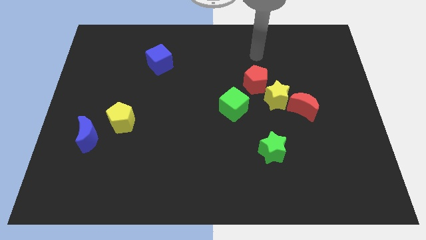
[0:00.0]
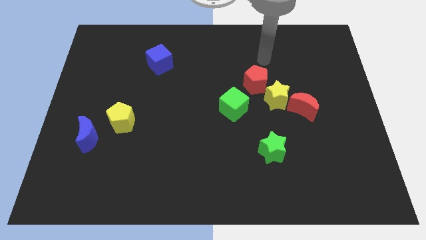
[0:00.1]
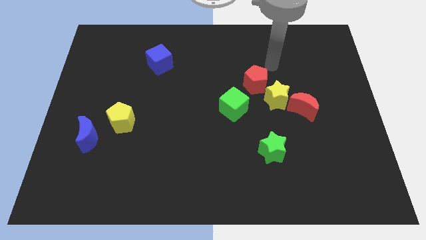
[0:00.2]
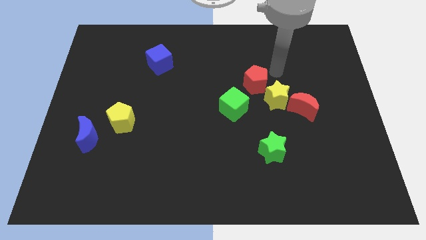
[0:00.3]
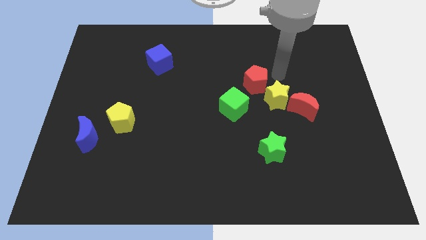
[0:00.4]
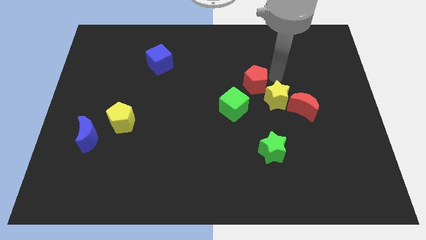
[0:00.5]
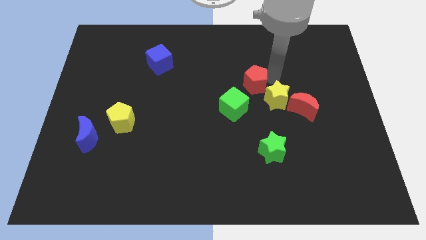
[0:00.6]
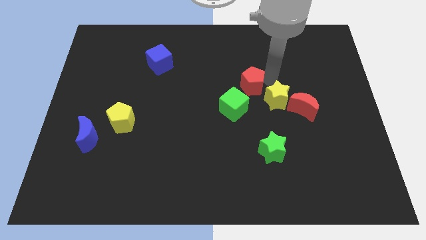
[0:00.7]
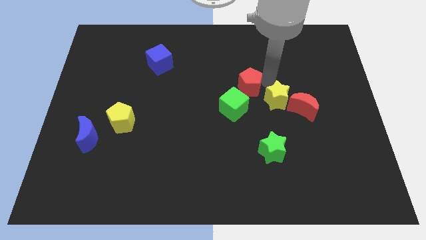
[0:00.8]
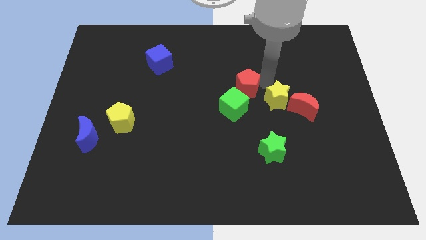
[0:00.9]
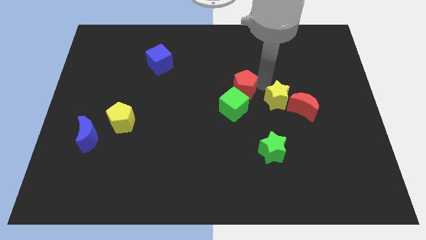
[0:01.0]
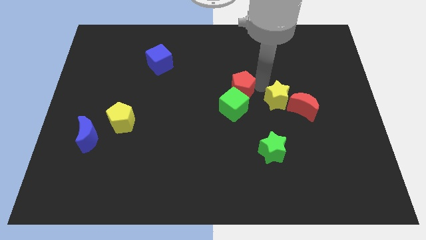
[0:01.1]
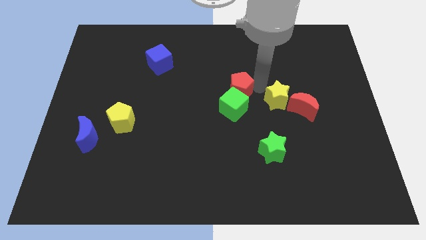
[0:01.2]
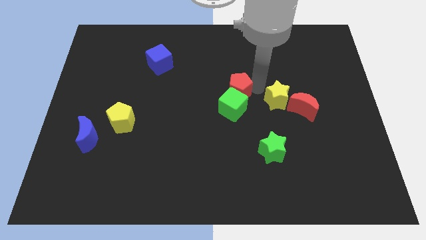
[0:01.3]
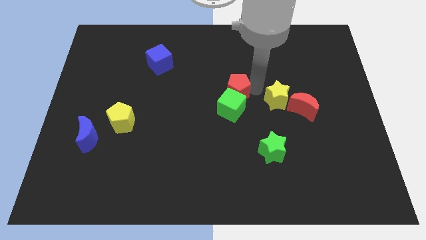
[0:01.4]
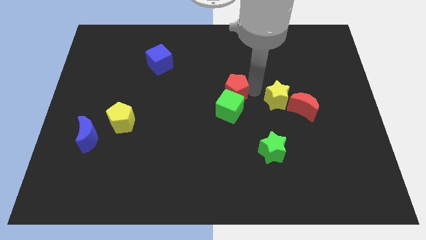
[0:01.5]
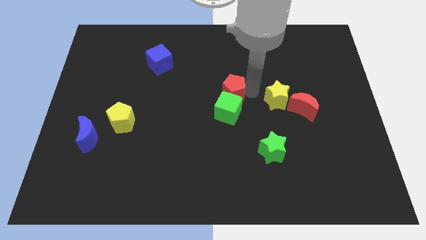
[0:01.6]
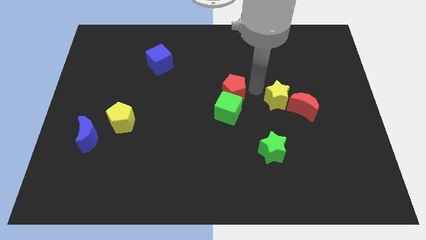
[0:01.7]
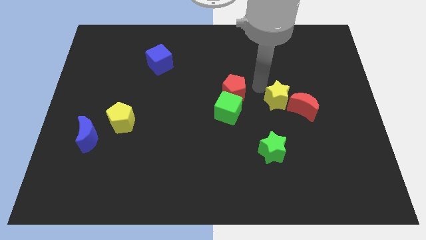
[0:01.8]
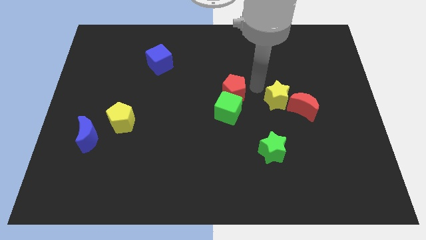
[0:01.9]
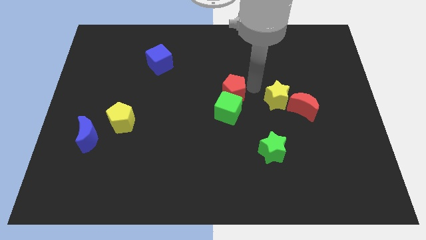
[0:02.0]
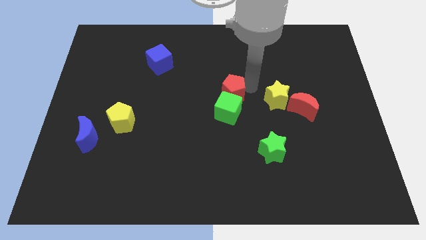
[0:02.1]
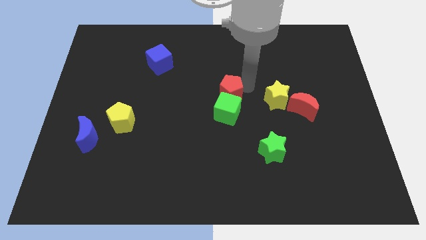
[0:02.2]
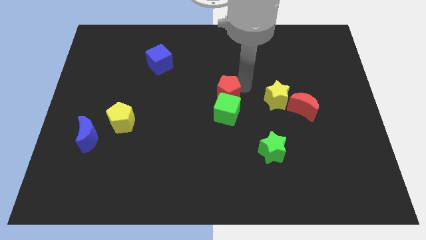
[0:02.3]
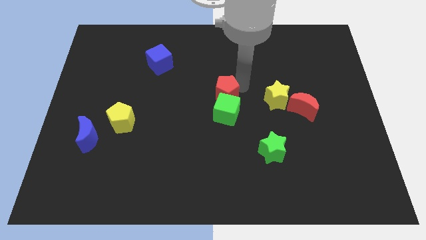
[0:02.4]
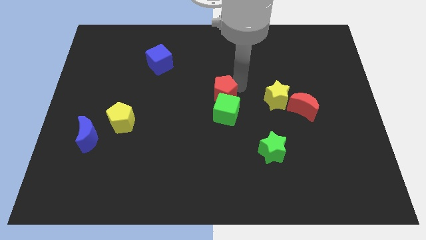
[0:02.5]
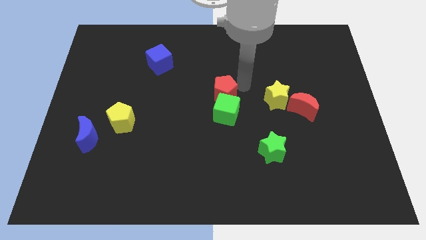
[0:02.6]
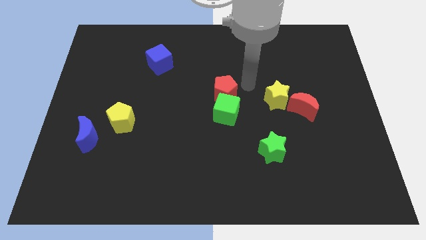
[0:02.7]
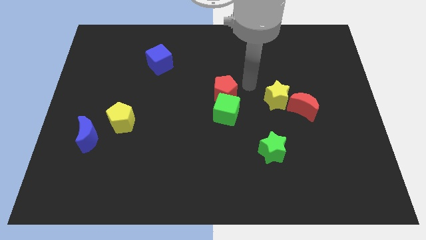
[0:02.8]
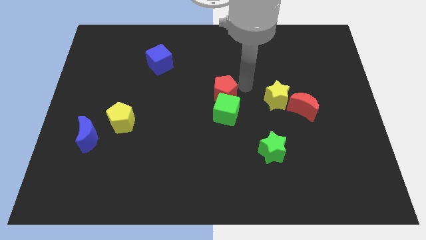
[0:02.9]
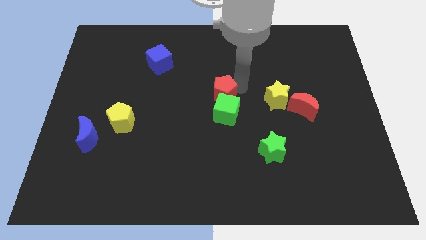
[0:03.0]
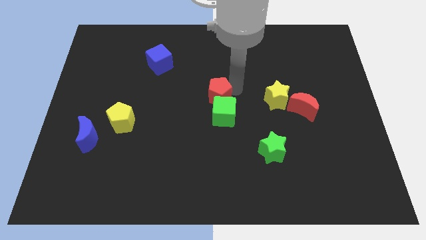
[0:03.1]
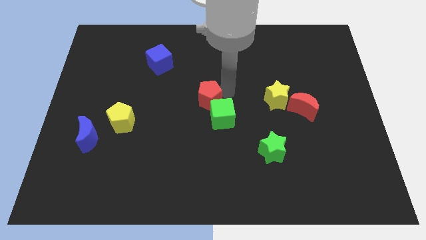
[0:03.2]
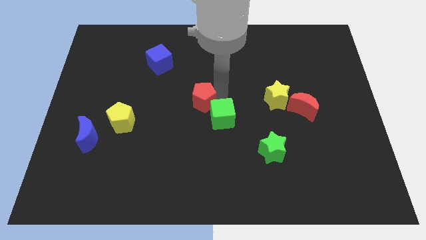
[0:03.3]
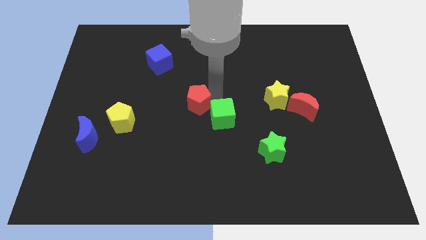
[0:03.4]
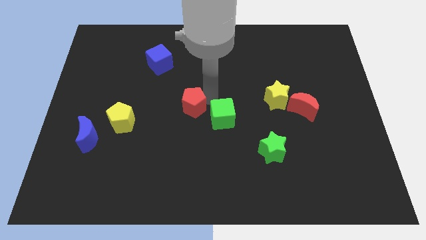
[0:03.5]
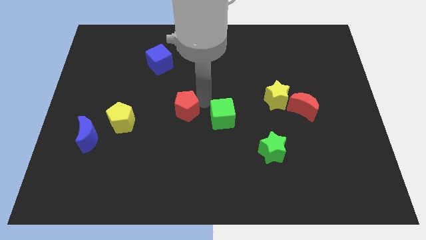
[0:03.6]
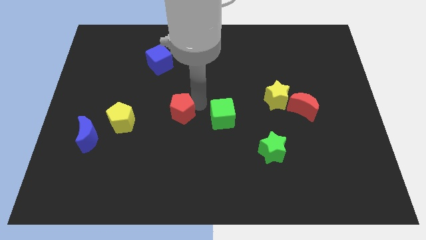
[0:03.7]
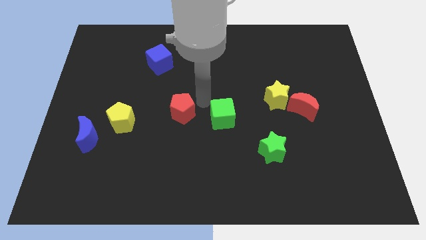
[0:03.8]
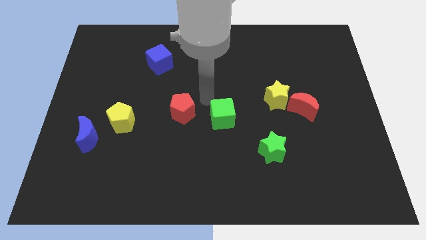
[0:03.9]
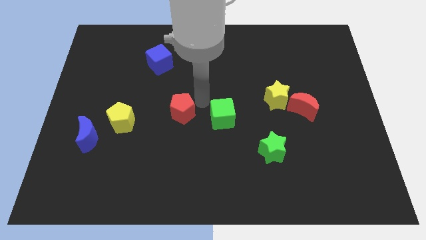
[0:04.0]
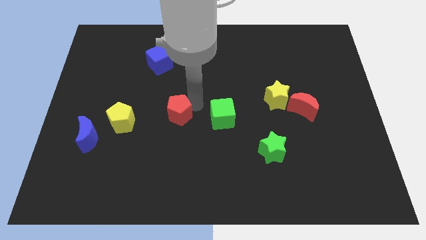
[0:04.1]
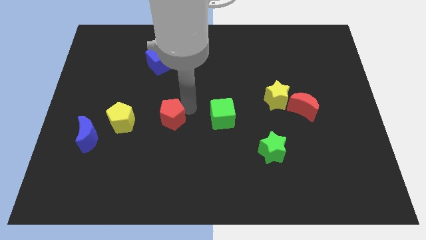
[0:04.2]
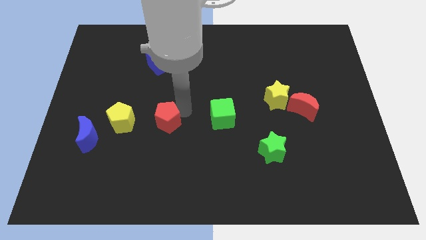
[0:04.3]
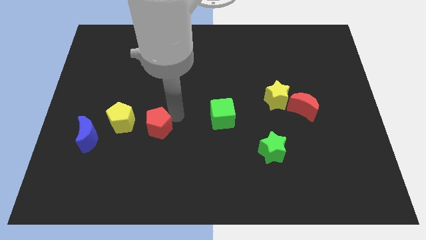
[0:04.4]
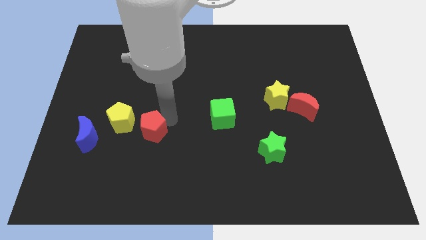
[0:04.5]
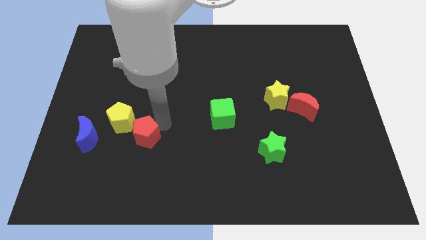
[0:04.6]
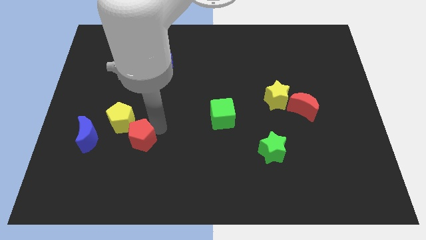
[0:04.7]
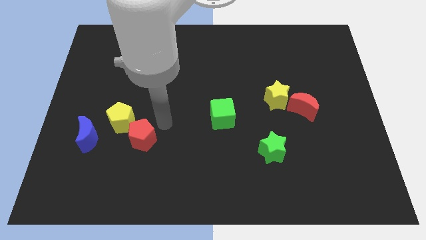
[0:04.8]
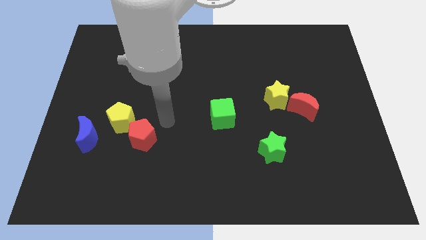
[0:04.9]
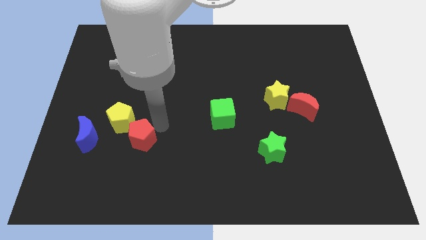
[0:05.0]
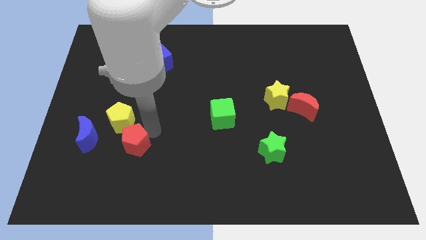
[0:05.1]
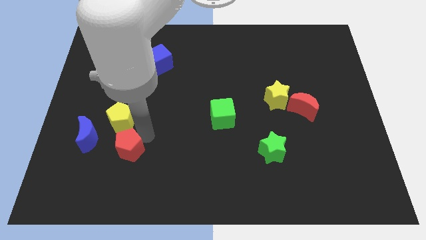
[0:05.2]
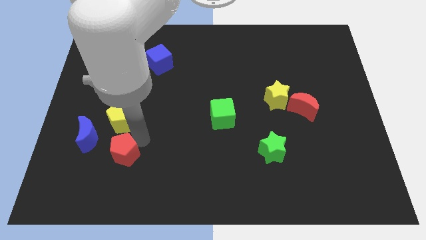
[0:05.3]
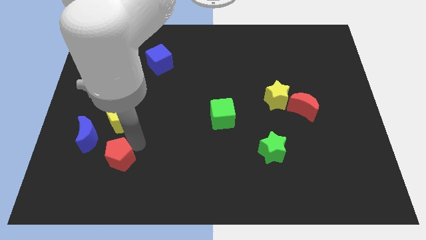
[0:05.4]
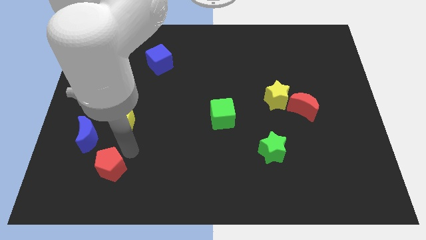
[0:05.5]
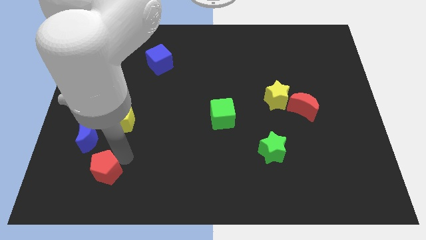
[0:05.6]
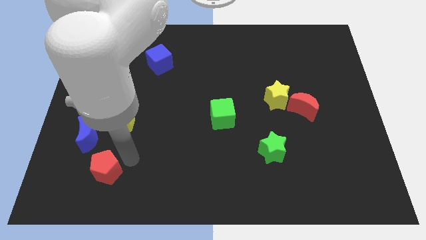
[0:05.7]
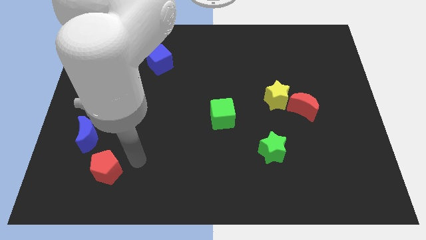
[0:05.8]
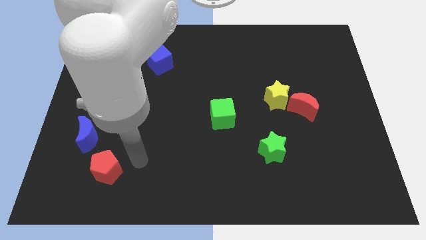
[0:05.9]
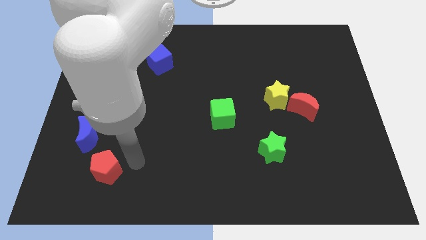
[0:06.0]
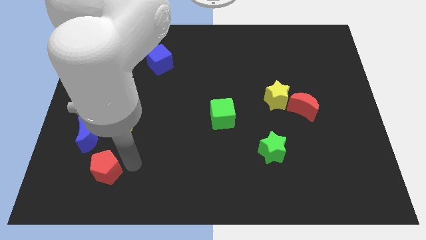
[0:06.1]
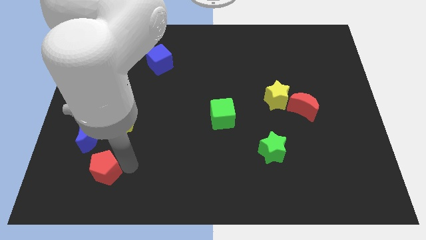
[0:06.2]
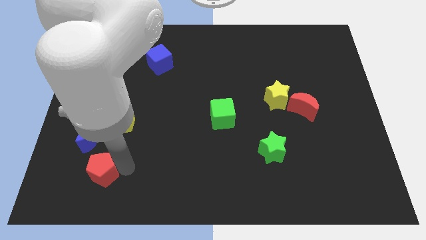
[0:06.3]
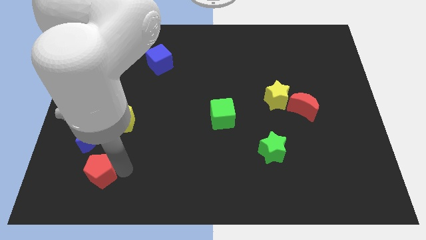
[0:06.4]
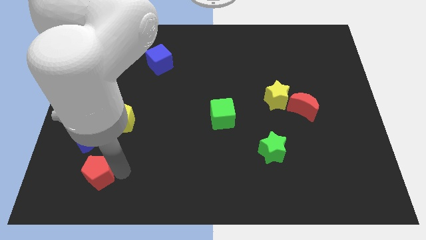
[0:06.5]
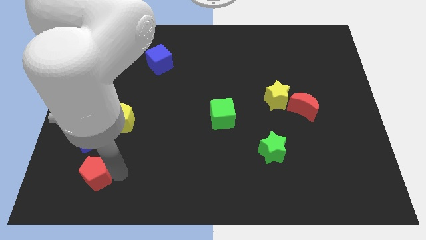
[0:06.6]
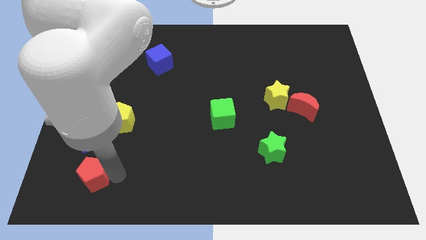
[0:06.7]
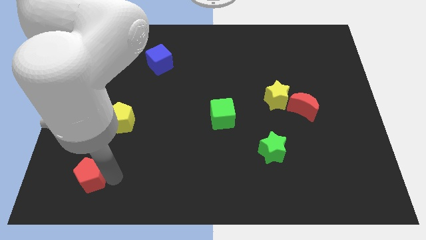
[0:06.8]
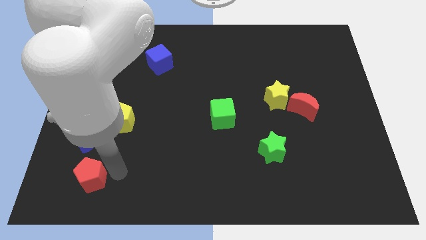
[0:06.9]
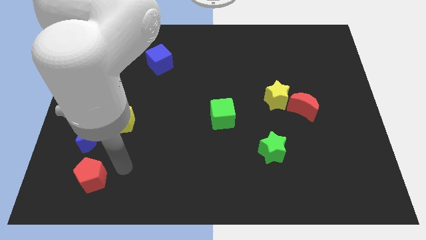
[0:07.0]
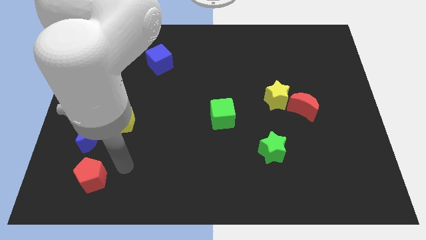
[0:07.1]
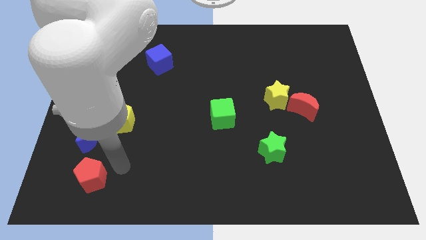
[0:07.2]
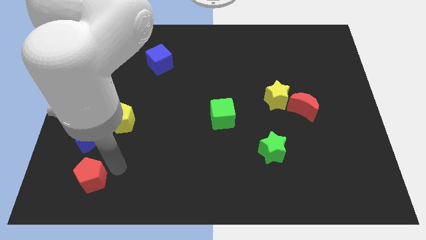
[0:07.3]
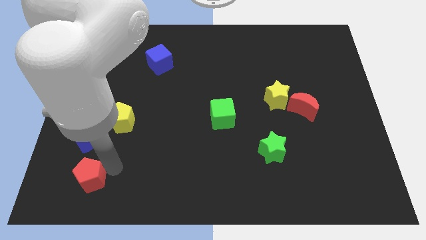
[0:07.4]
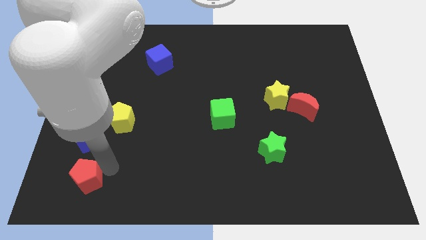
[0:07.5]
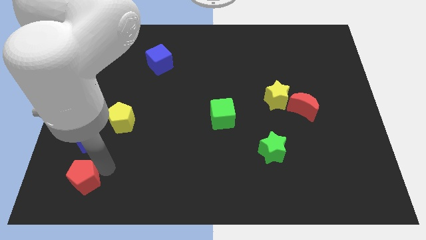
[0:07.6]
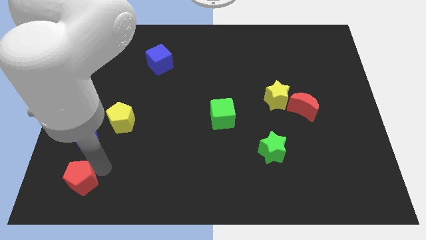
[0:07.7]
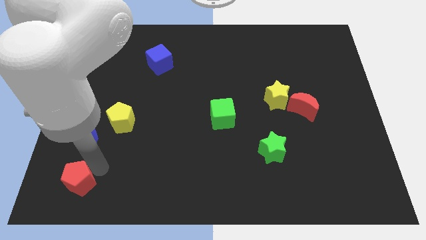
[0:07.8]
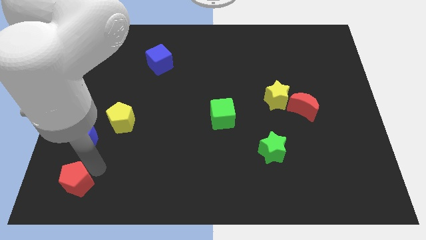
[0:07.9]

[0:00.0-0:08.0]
move the red pentagon to the lower left corner
